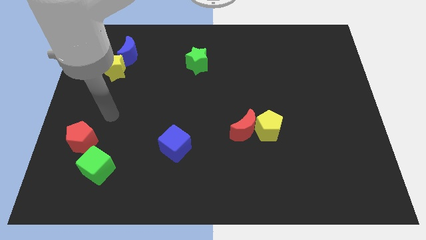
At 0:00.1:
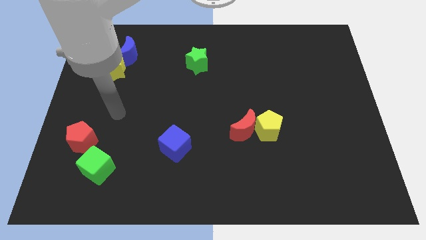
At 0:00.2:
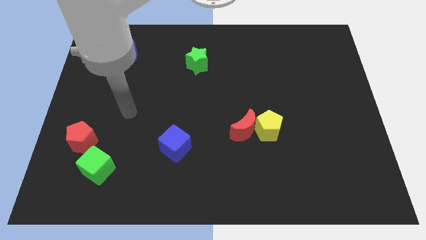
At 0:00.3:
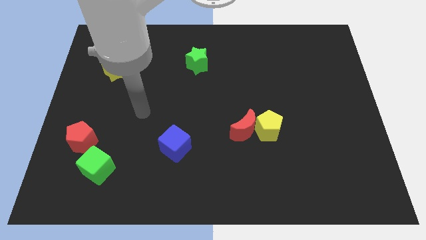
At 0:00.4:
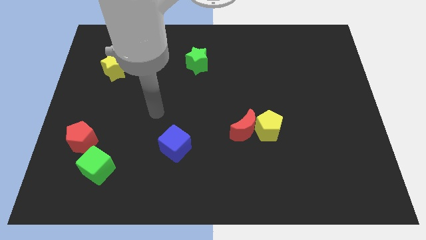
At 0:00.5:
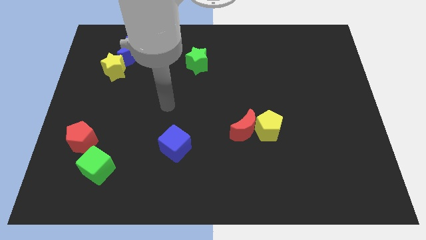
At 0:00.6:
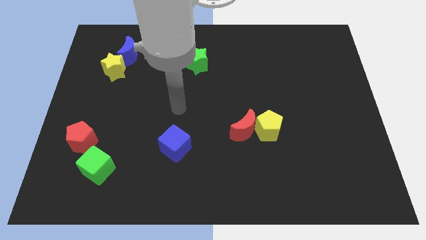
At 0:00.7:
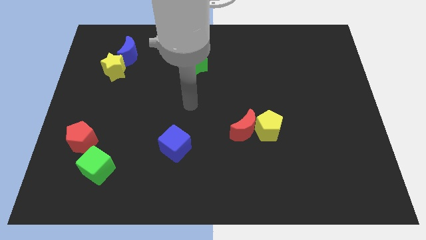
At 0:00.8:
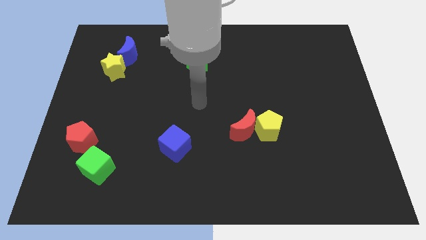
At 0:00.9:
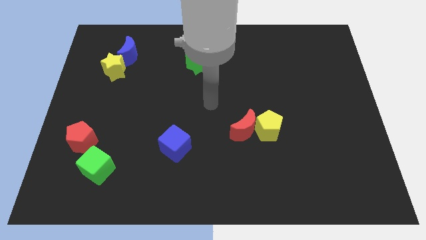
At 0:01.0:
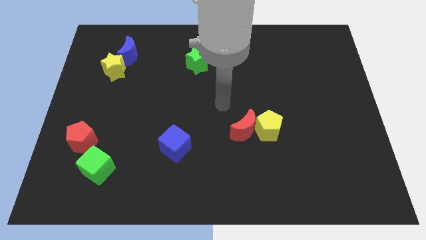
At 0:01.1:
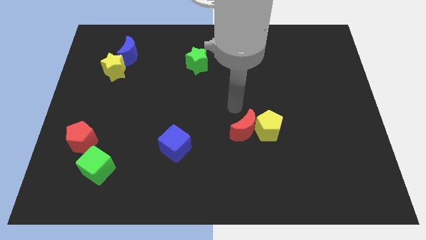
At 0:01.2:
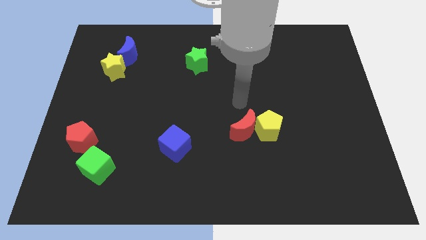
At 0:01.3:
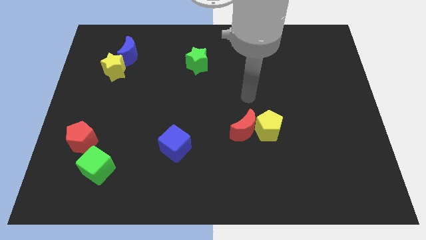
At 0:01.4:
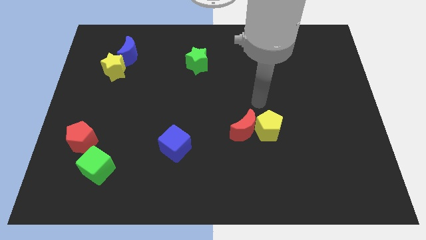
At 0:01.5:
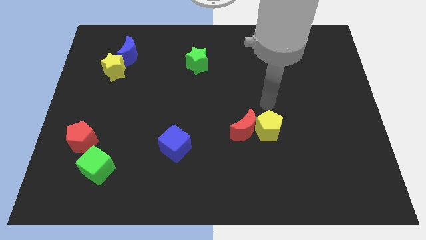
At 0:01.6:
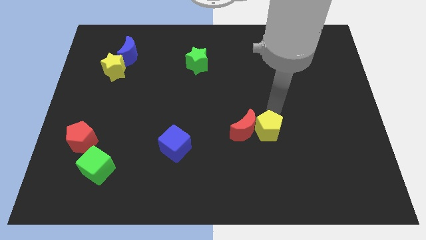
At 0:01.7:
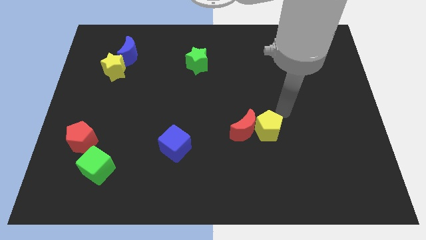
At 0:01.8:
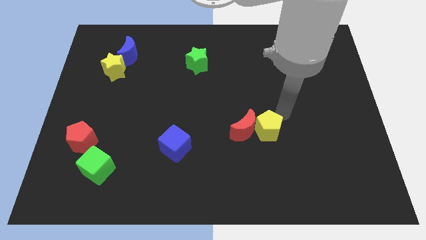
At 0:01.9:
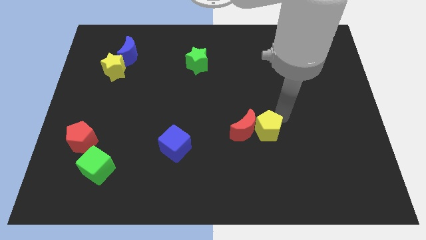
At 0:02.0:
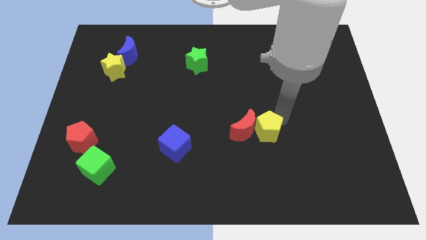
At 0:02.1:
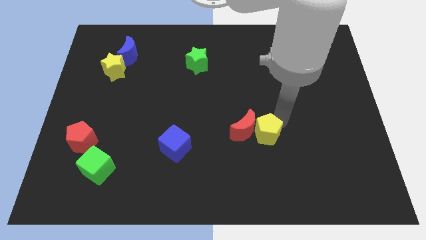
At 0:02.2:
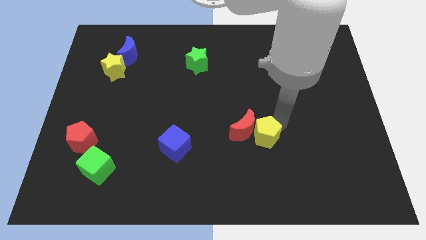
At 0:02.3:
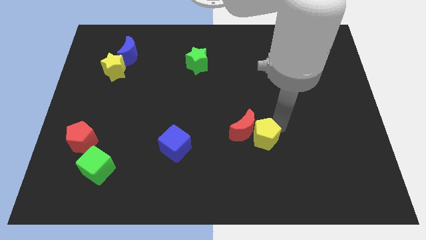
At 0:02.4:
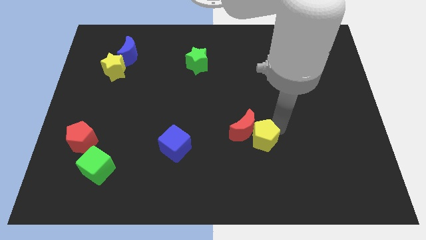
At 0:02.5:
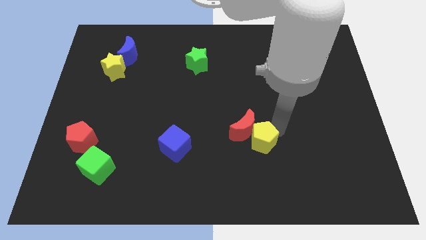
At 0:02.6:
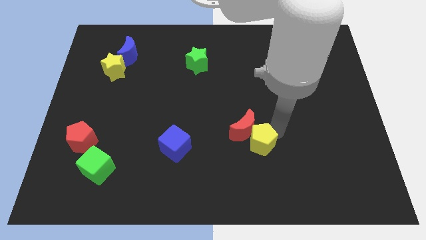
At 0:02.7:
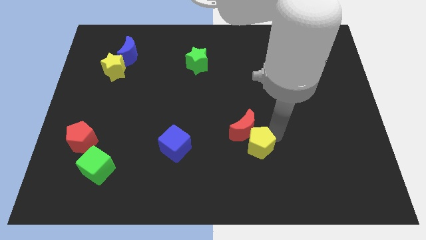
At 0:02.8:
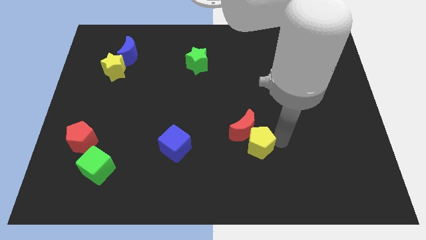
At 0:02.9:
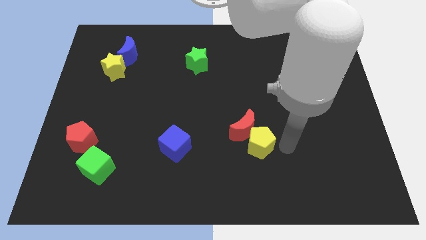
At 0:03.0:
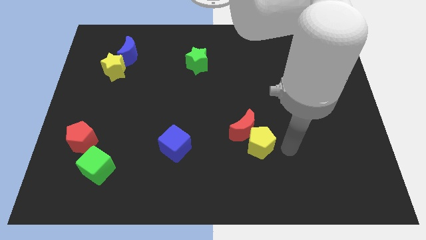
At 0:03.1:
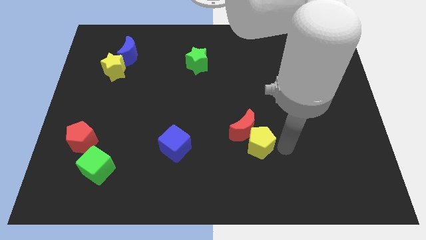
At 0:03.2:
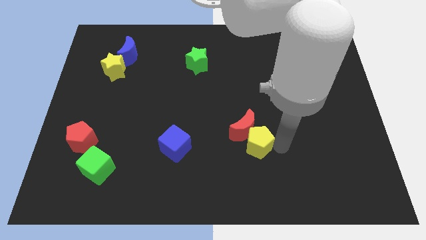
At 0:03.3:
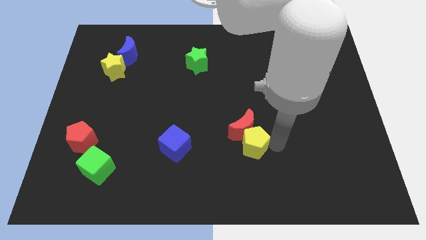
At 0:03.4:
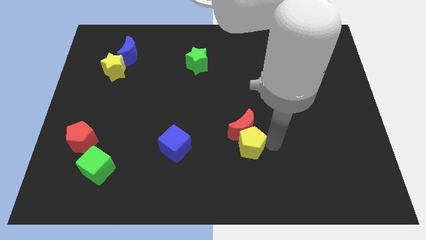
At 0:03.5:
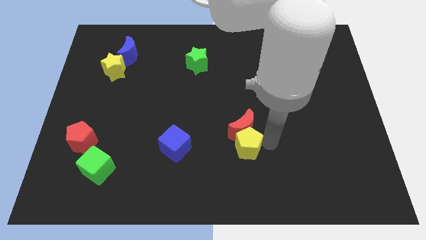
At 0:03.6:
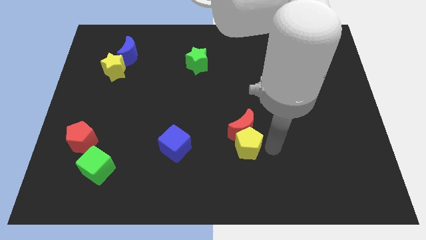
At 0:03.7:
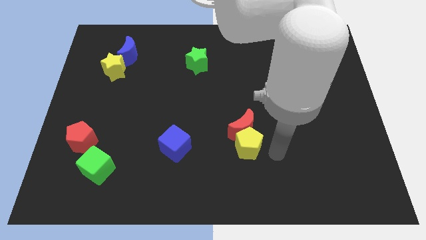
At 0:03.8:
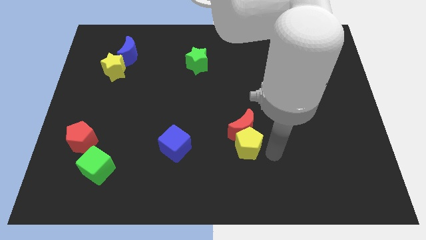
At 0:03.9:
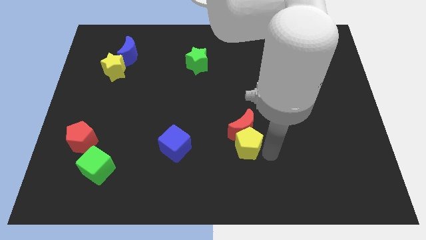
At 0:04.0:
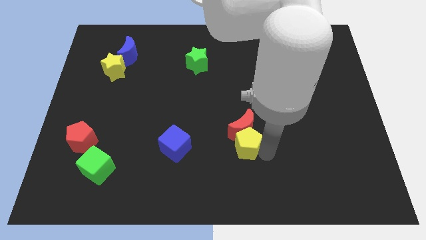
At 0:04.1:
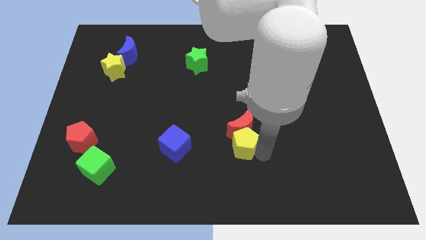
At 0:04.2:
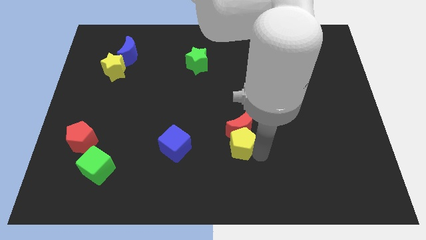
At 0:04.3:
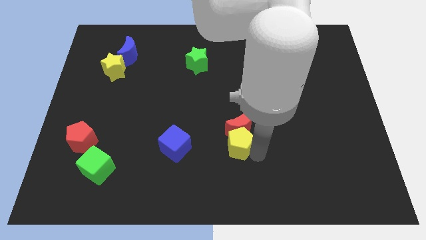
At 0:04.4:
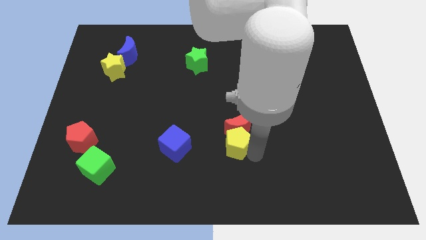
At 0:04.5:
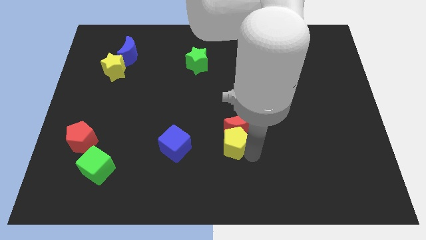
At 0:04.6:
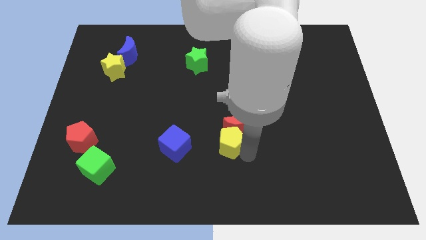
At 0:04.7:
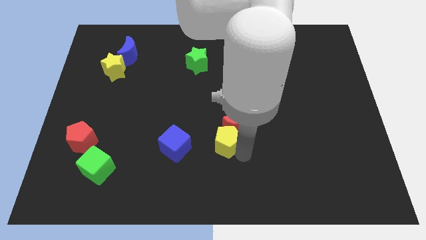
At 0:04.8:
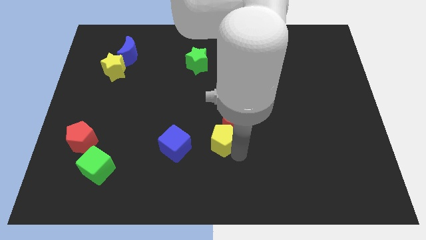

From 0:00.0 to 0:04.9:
push the yellow pentagon left of the red moon

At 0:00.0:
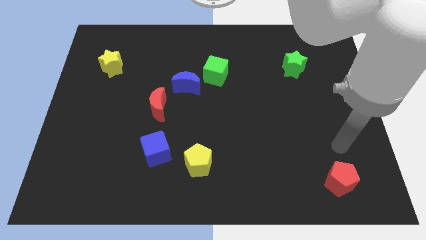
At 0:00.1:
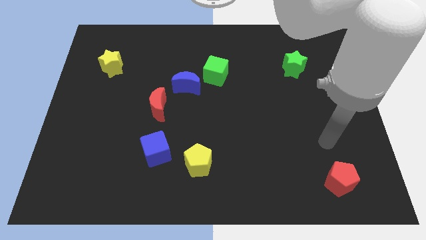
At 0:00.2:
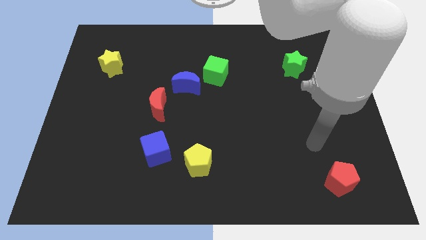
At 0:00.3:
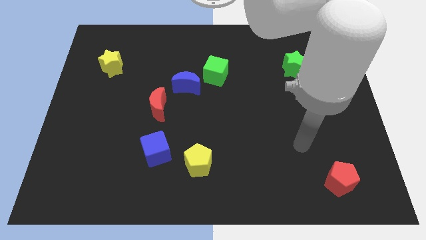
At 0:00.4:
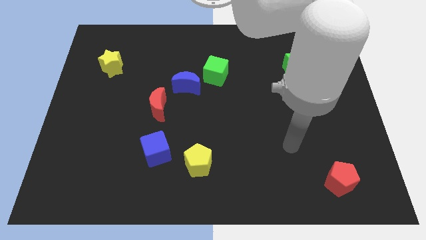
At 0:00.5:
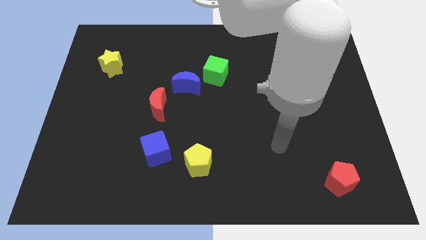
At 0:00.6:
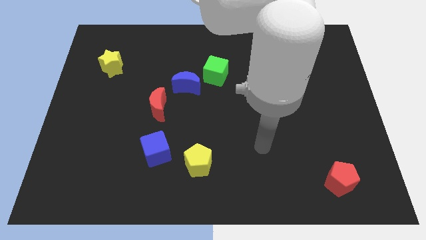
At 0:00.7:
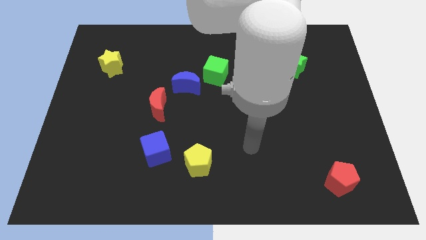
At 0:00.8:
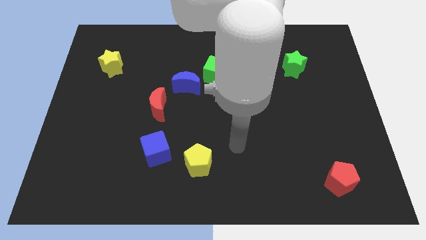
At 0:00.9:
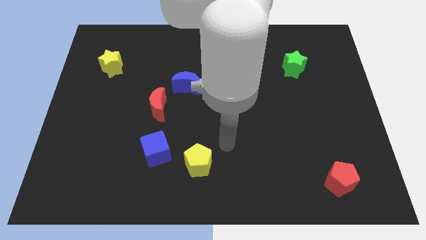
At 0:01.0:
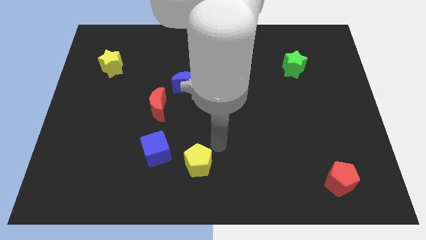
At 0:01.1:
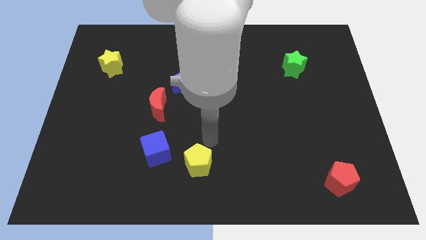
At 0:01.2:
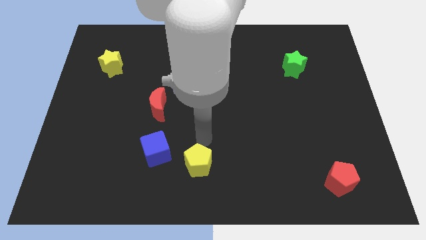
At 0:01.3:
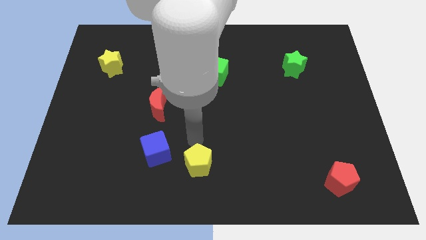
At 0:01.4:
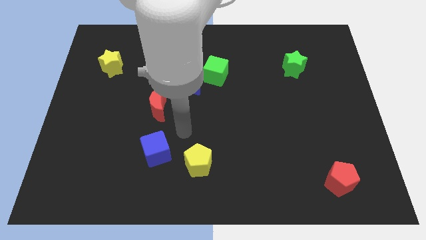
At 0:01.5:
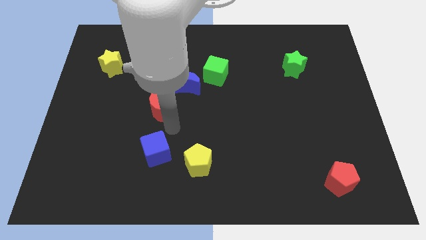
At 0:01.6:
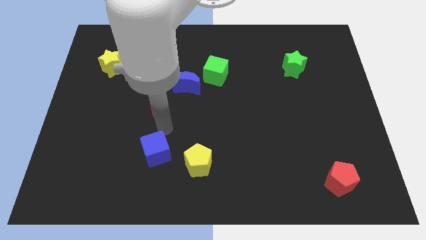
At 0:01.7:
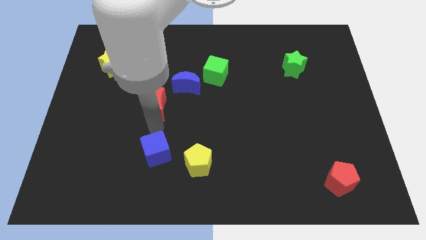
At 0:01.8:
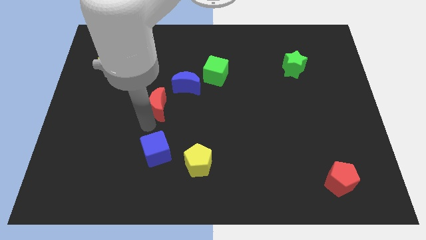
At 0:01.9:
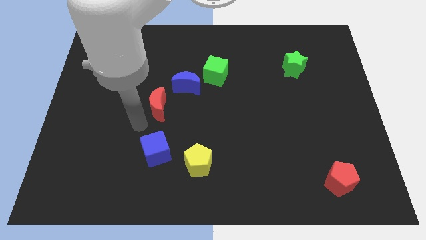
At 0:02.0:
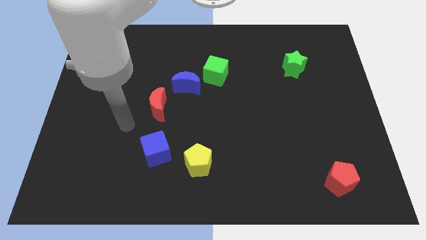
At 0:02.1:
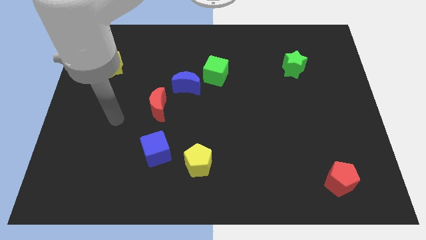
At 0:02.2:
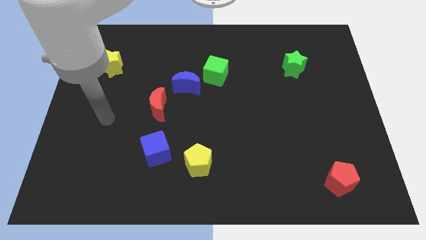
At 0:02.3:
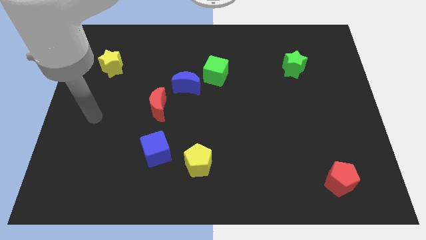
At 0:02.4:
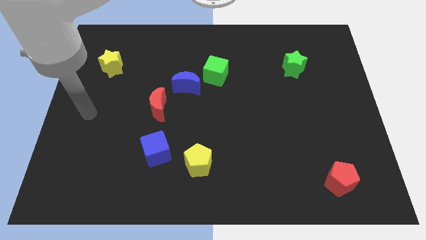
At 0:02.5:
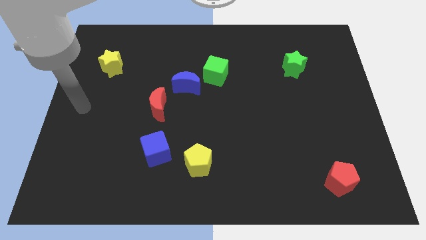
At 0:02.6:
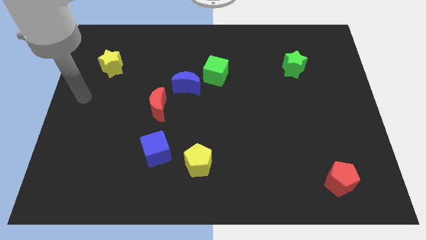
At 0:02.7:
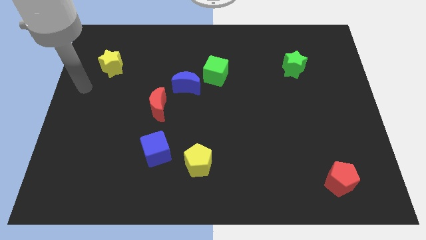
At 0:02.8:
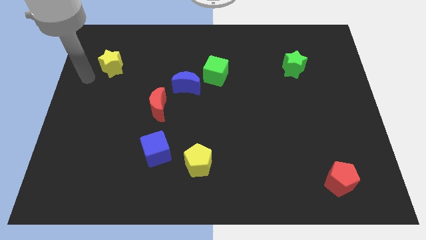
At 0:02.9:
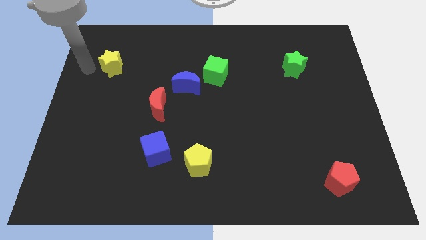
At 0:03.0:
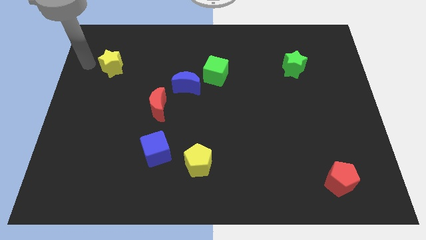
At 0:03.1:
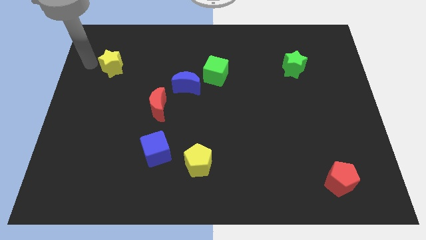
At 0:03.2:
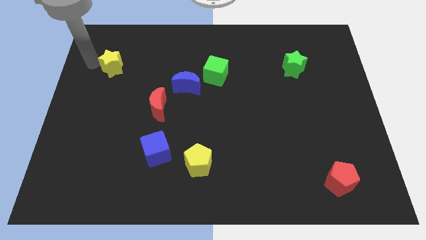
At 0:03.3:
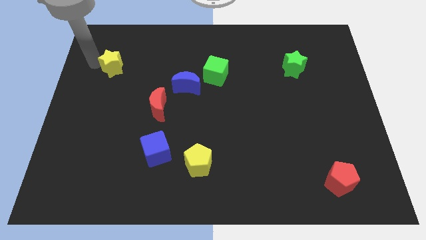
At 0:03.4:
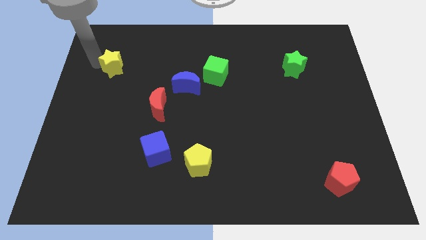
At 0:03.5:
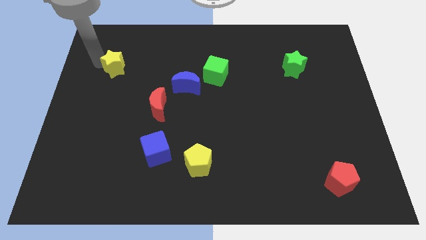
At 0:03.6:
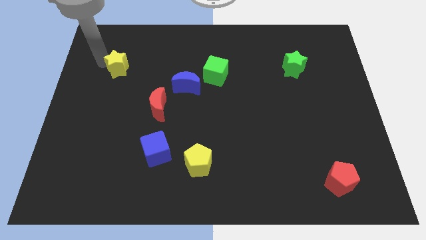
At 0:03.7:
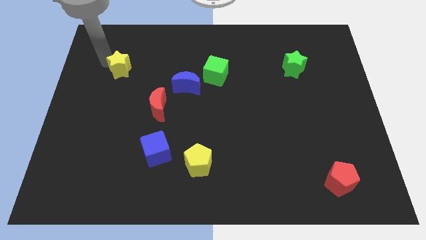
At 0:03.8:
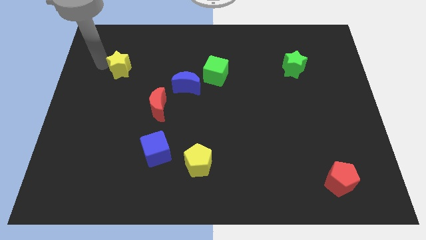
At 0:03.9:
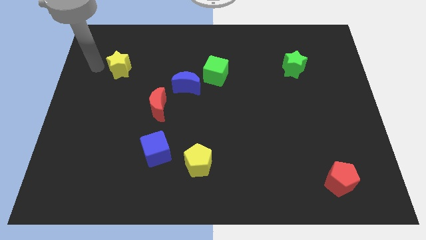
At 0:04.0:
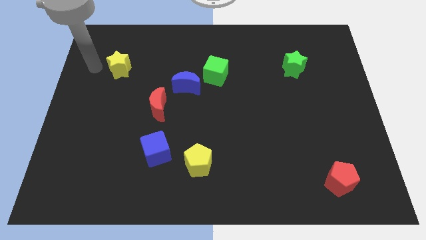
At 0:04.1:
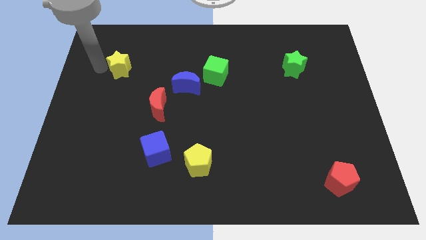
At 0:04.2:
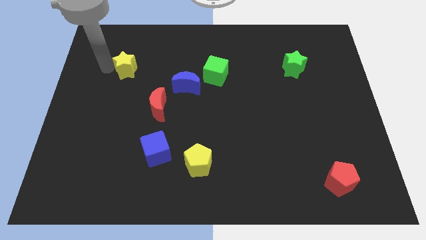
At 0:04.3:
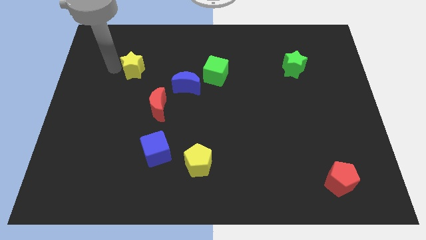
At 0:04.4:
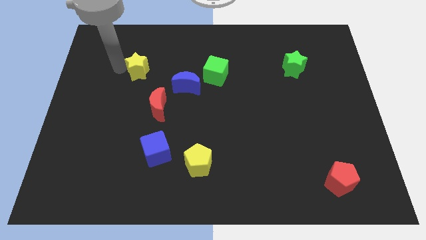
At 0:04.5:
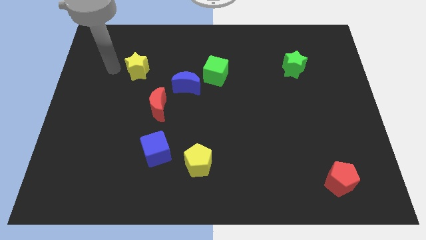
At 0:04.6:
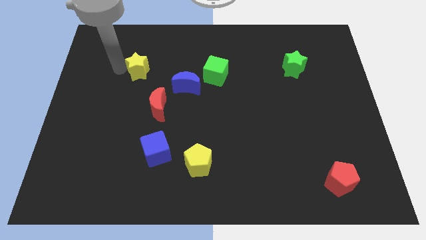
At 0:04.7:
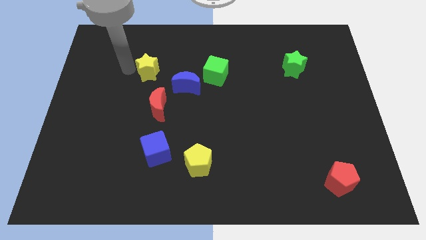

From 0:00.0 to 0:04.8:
push the yellow star to the top left of the blue moon
